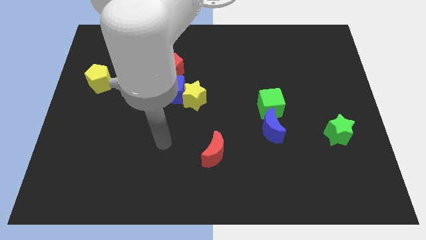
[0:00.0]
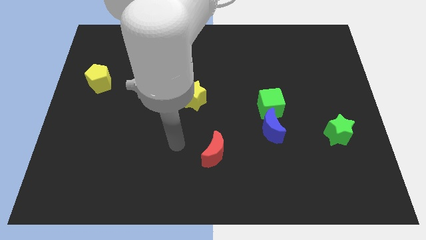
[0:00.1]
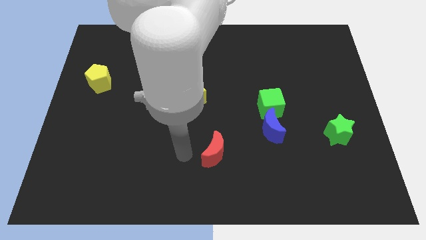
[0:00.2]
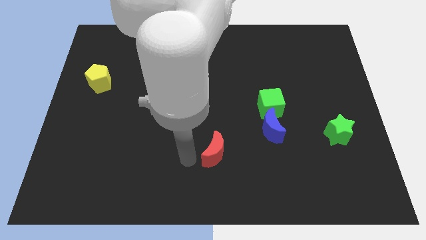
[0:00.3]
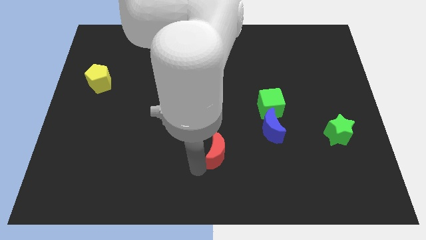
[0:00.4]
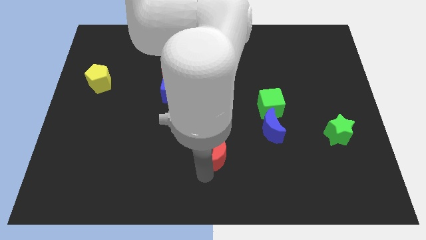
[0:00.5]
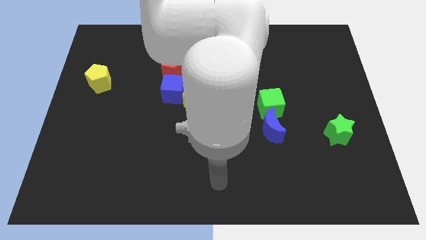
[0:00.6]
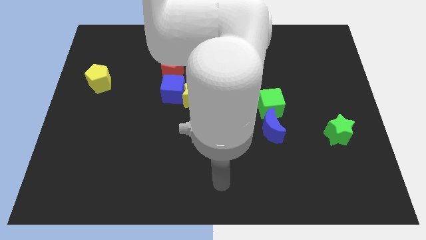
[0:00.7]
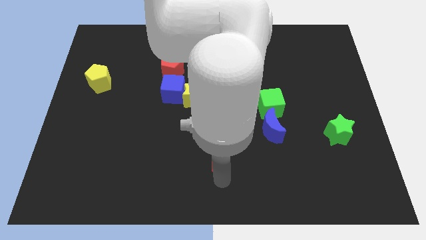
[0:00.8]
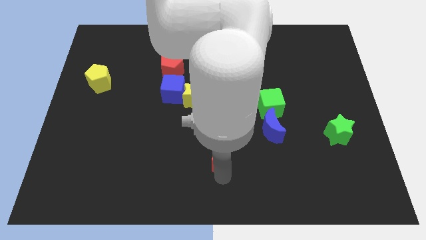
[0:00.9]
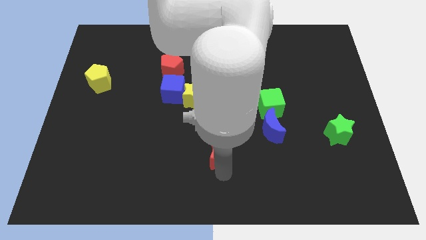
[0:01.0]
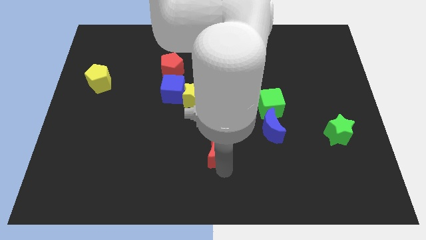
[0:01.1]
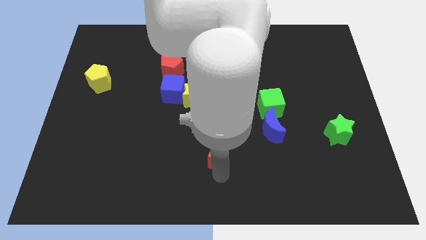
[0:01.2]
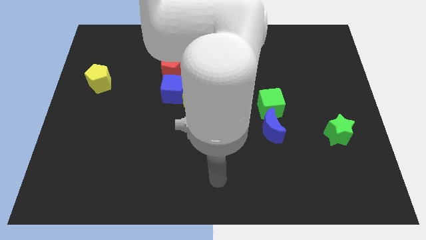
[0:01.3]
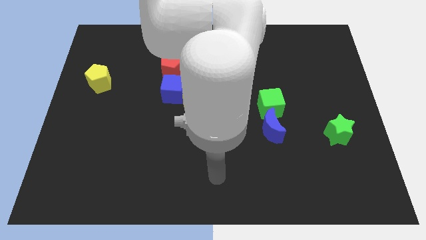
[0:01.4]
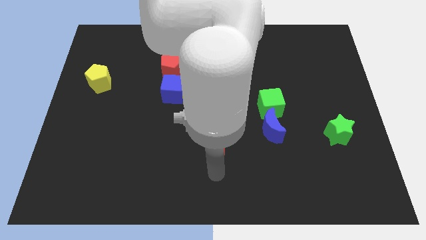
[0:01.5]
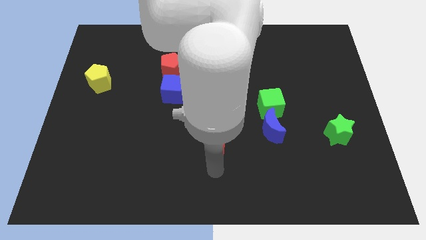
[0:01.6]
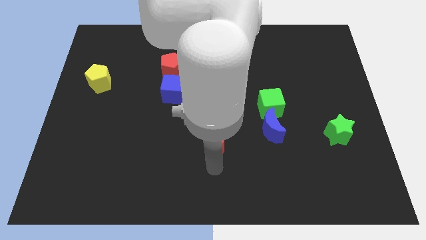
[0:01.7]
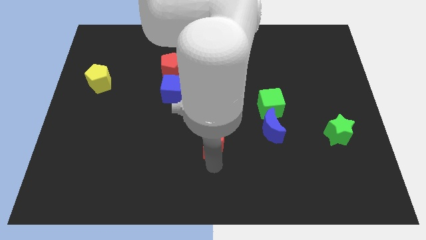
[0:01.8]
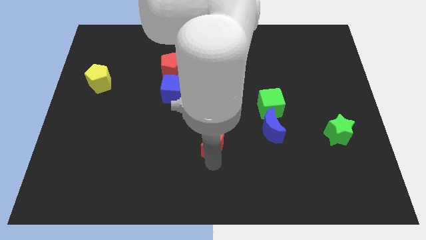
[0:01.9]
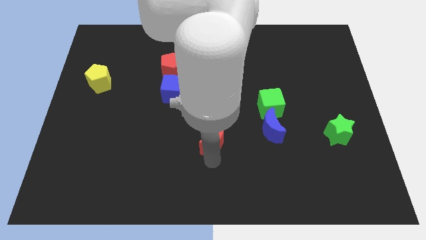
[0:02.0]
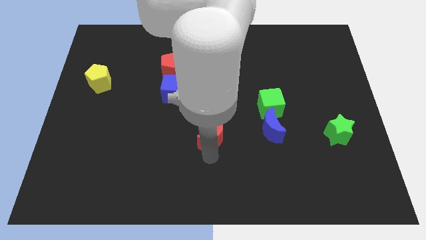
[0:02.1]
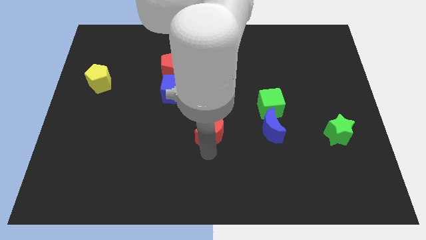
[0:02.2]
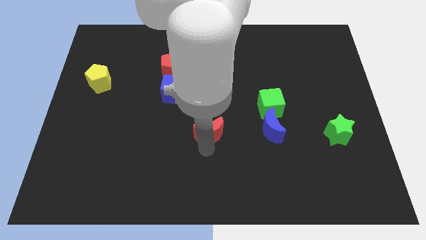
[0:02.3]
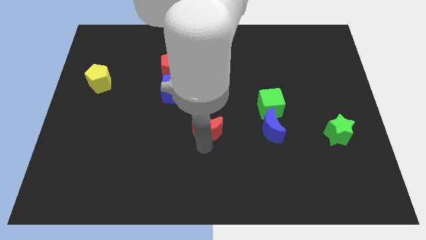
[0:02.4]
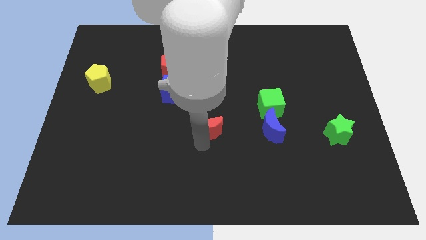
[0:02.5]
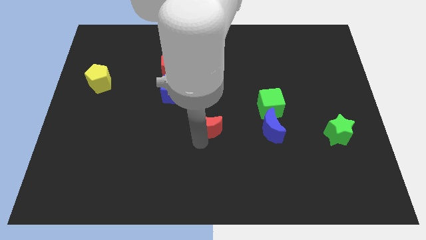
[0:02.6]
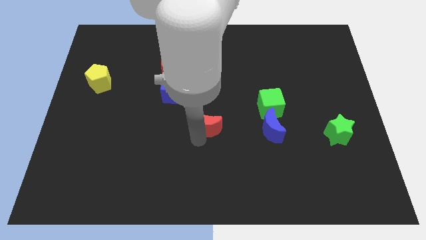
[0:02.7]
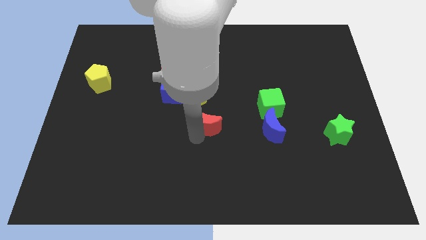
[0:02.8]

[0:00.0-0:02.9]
push the red moon a little bit up

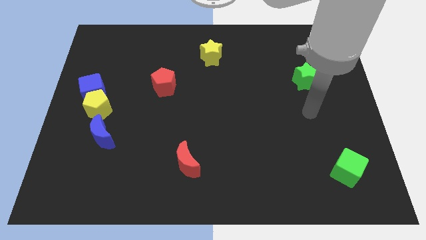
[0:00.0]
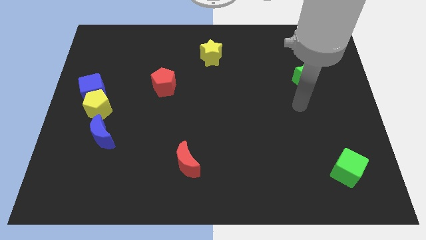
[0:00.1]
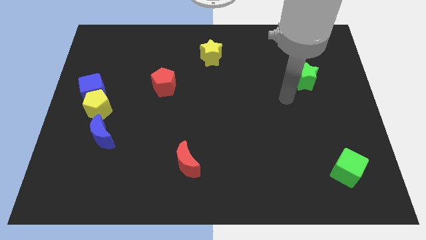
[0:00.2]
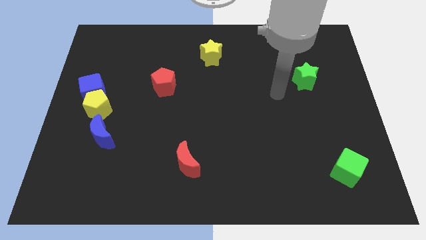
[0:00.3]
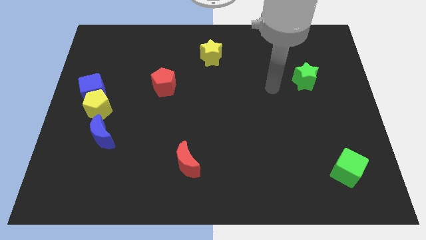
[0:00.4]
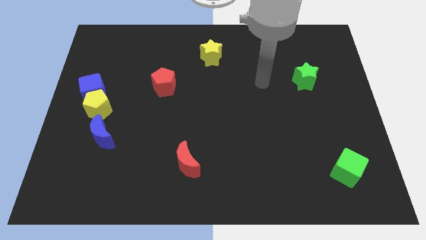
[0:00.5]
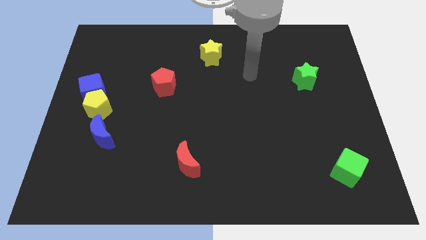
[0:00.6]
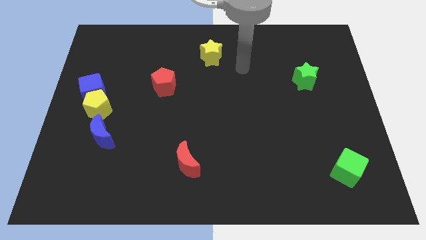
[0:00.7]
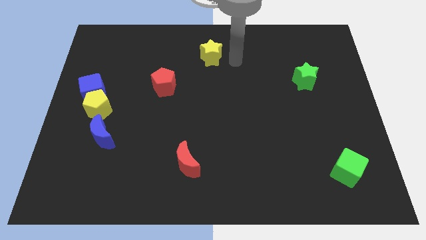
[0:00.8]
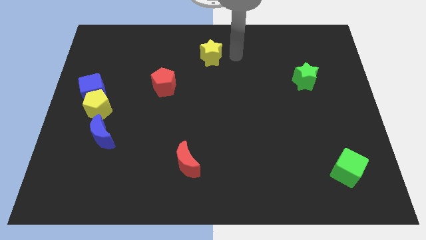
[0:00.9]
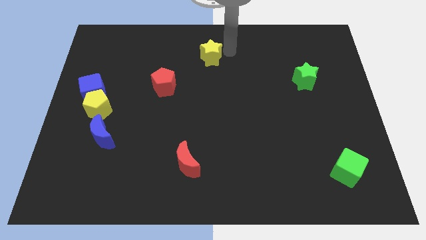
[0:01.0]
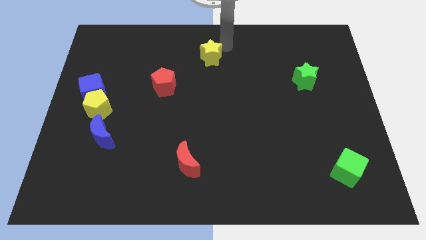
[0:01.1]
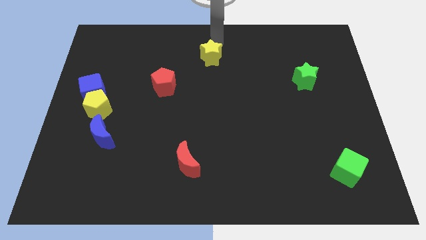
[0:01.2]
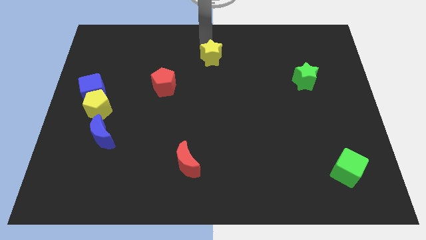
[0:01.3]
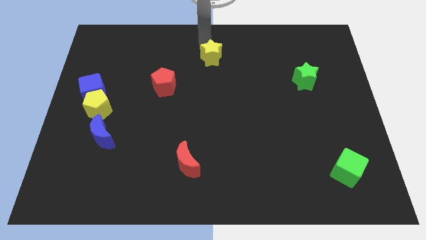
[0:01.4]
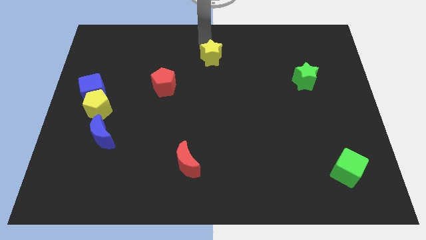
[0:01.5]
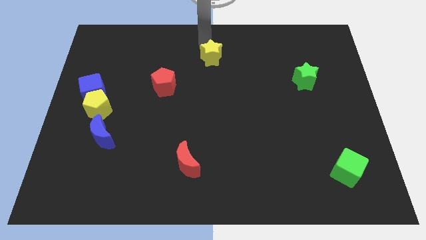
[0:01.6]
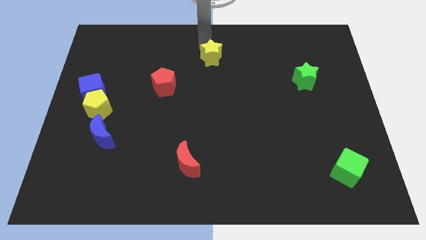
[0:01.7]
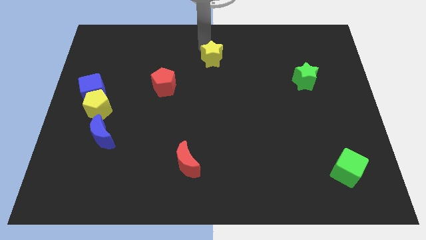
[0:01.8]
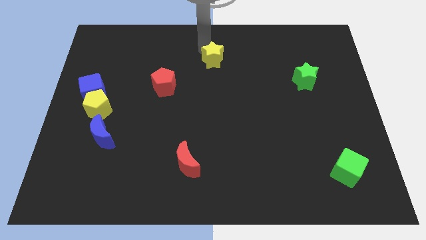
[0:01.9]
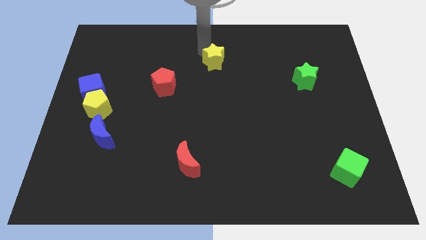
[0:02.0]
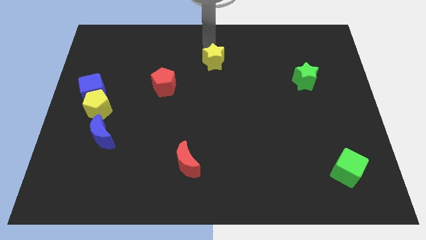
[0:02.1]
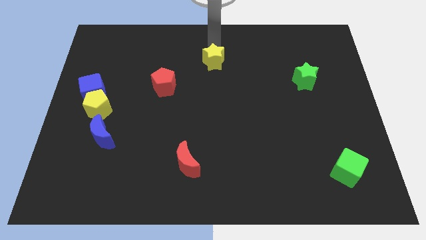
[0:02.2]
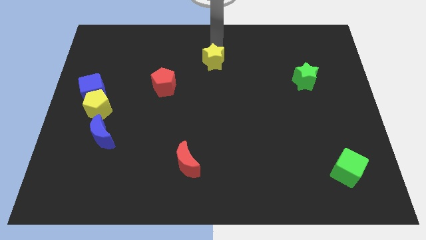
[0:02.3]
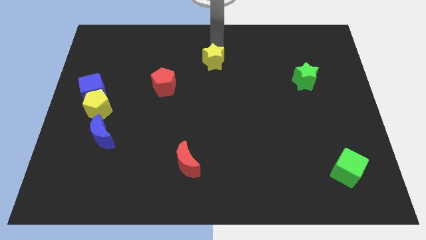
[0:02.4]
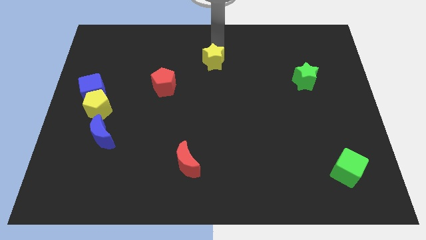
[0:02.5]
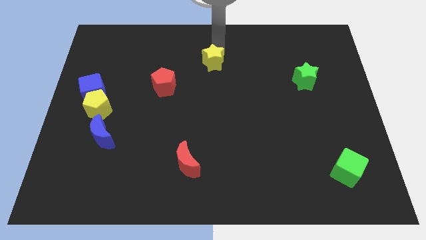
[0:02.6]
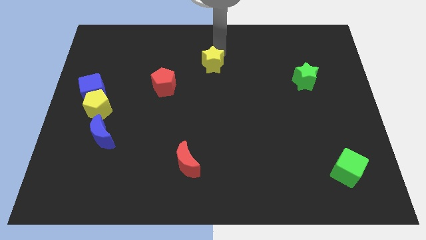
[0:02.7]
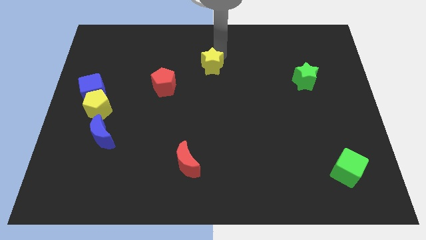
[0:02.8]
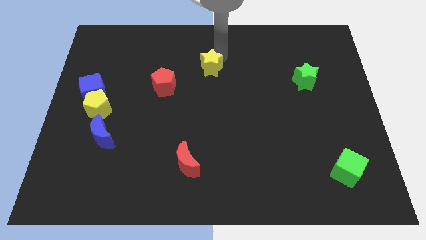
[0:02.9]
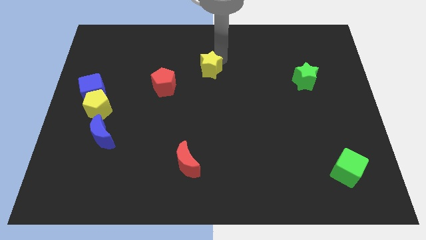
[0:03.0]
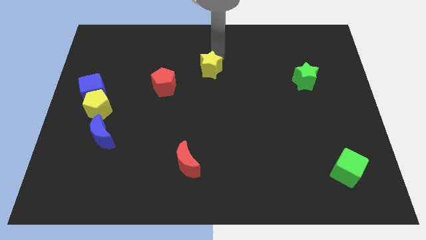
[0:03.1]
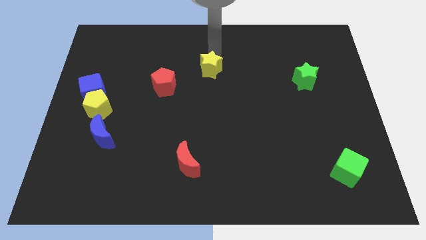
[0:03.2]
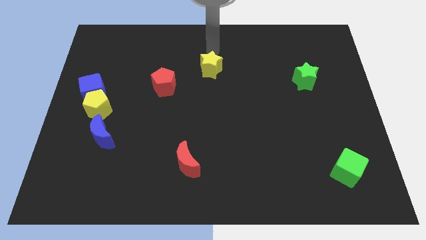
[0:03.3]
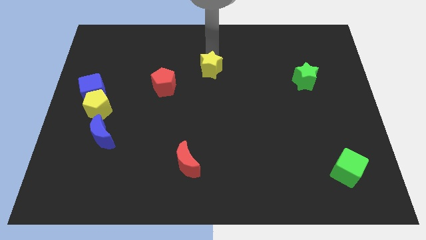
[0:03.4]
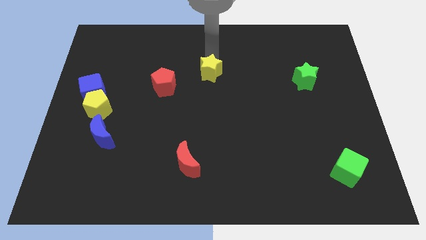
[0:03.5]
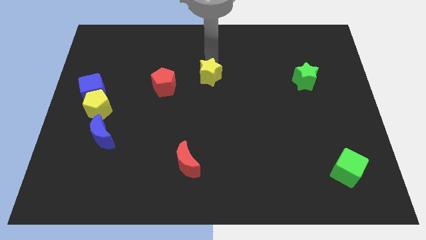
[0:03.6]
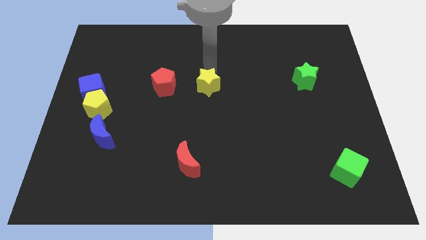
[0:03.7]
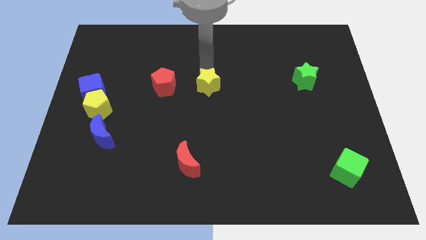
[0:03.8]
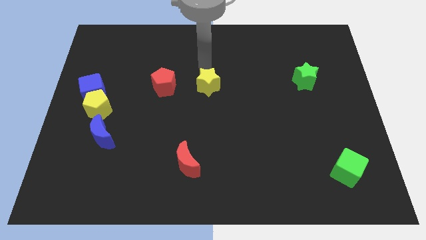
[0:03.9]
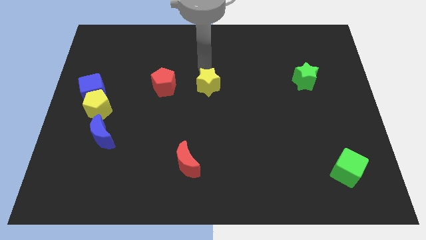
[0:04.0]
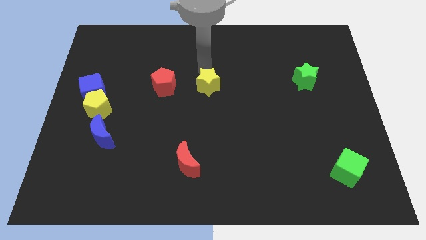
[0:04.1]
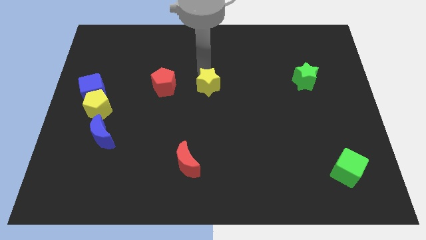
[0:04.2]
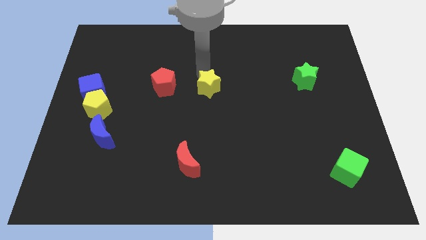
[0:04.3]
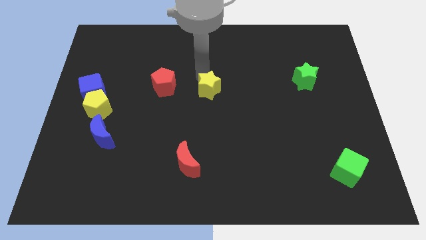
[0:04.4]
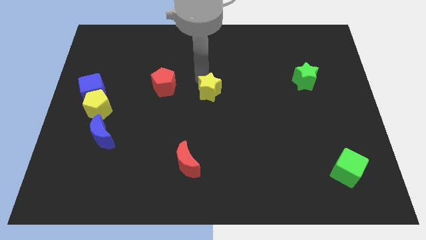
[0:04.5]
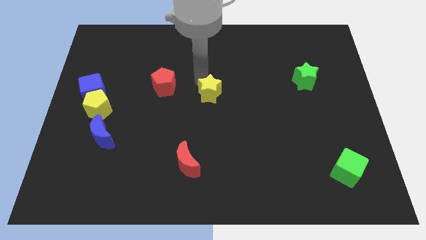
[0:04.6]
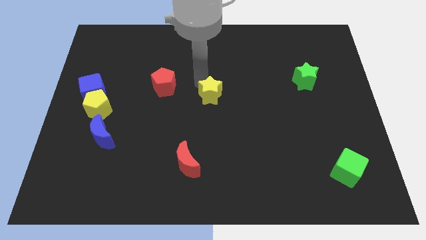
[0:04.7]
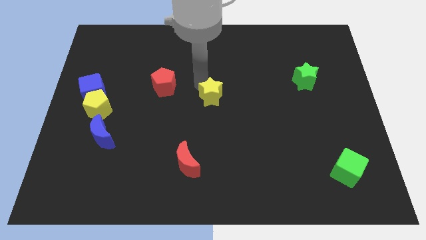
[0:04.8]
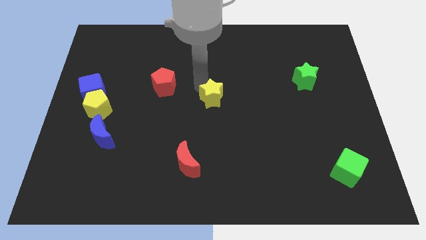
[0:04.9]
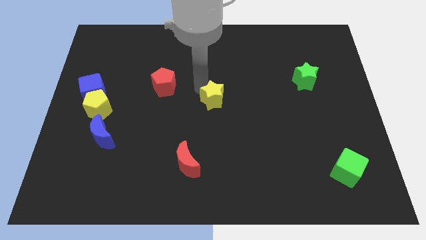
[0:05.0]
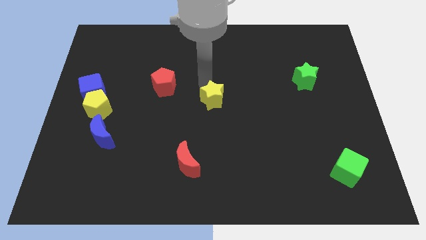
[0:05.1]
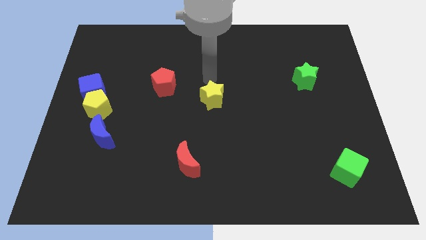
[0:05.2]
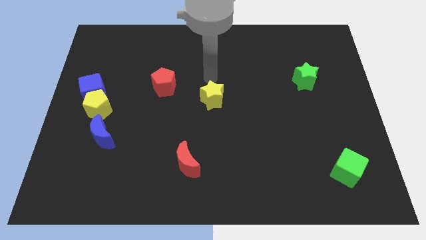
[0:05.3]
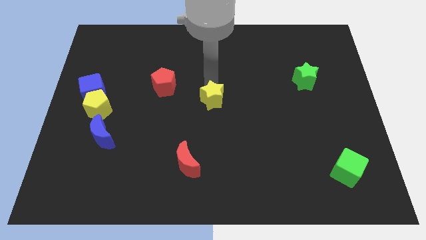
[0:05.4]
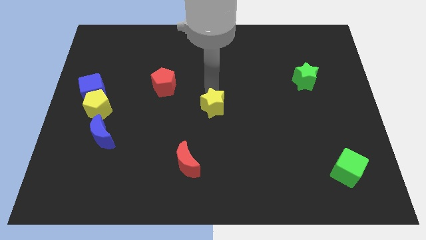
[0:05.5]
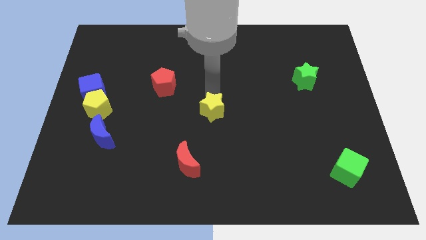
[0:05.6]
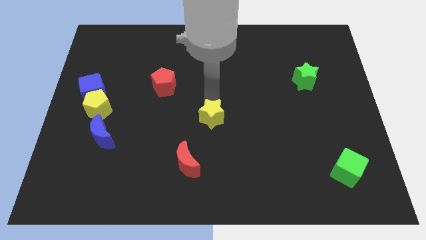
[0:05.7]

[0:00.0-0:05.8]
move the yellow star downwards

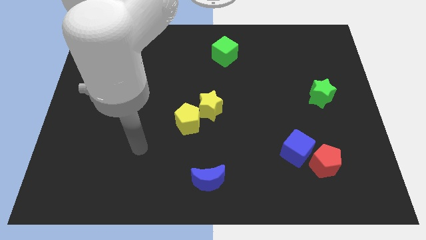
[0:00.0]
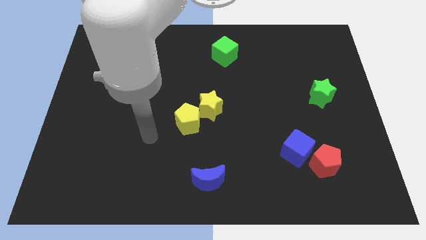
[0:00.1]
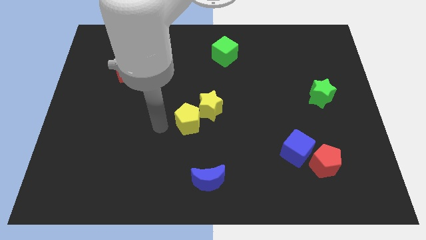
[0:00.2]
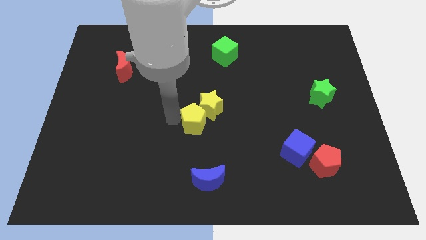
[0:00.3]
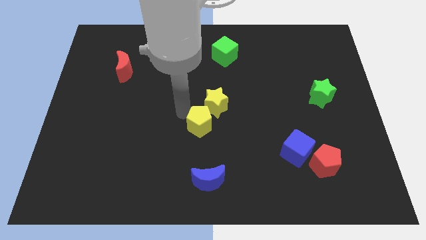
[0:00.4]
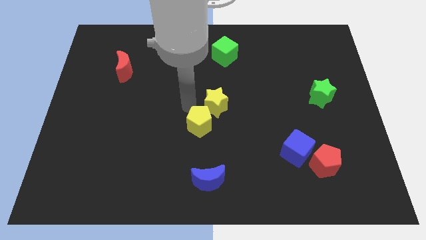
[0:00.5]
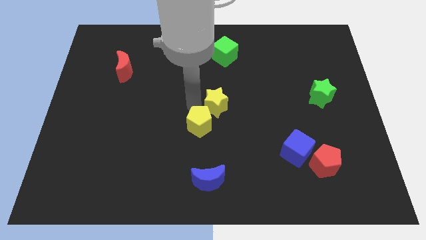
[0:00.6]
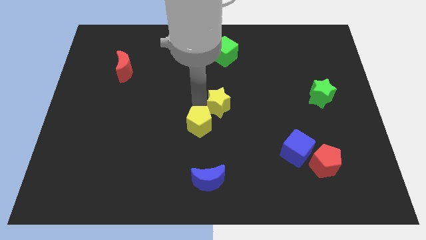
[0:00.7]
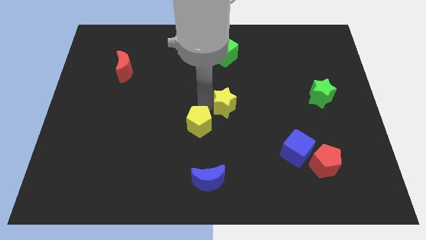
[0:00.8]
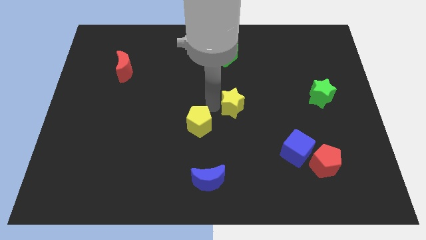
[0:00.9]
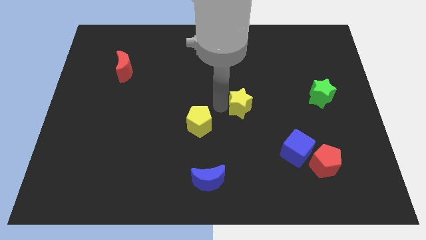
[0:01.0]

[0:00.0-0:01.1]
slightly slide the yellow star to the right
